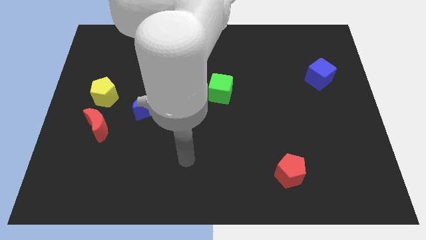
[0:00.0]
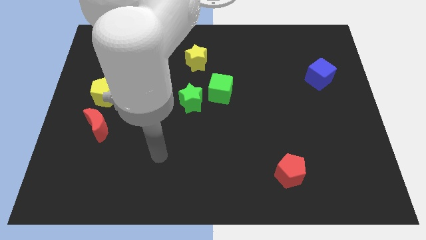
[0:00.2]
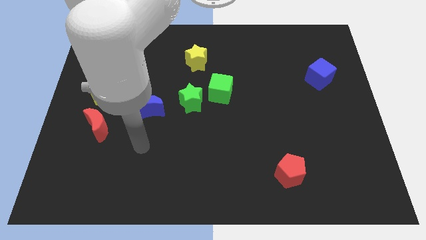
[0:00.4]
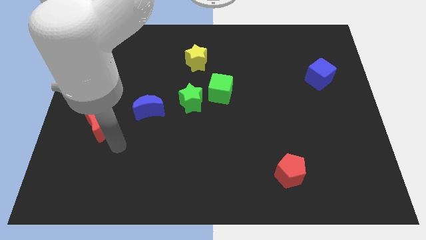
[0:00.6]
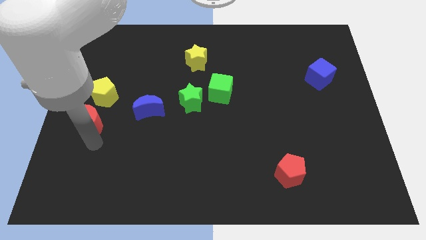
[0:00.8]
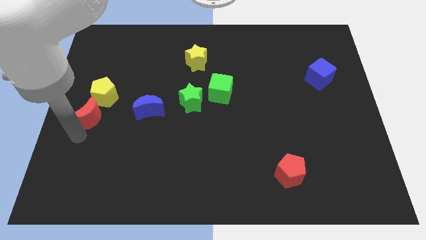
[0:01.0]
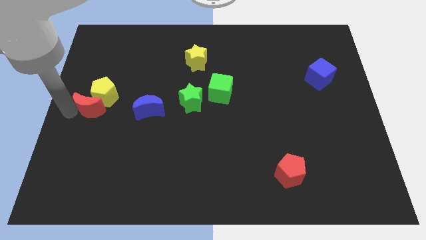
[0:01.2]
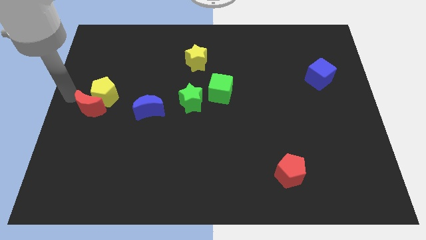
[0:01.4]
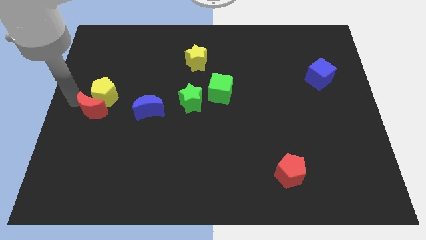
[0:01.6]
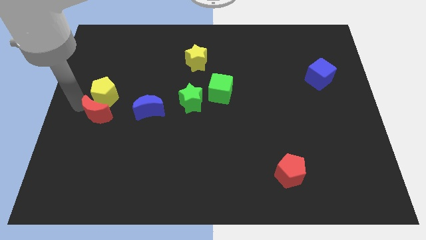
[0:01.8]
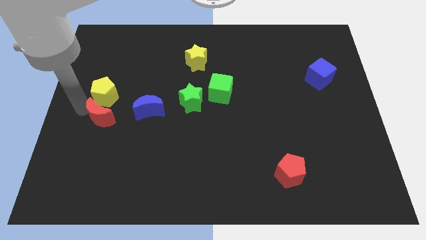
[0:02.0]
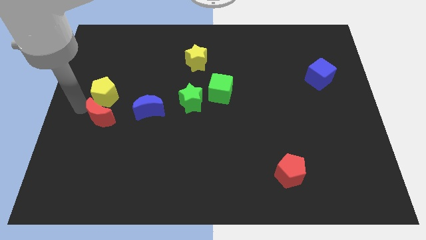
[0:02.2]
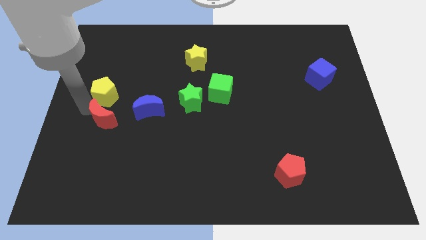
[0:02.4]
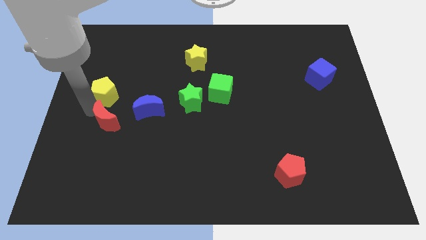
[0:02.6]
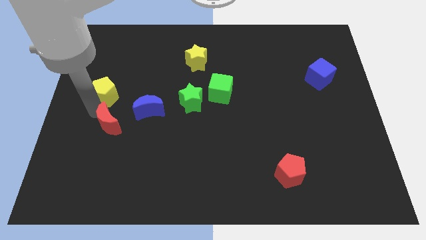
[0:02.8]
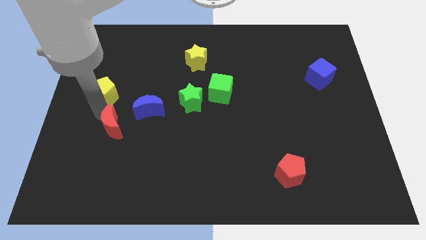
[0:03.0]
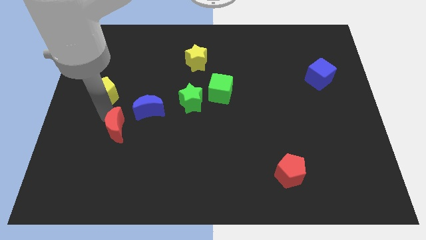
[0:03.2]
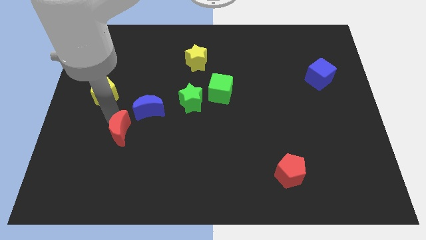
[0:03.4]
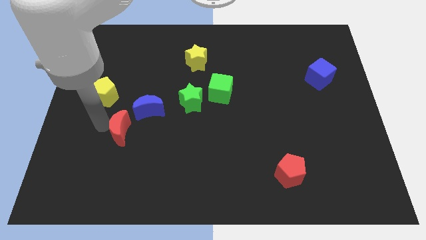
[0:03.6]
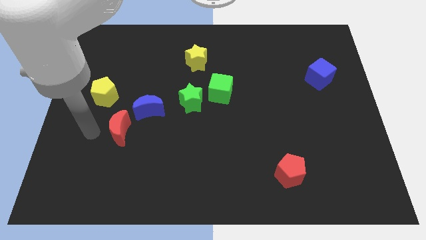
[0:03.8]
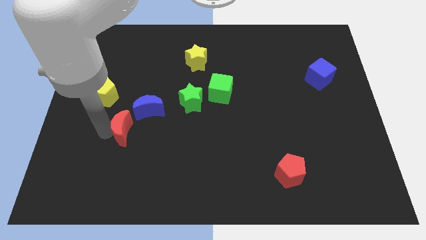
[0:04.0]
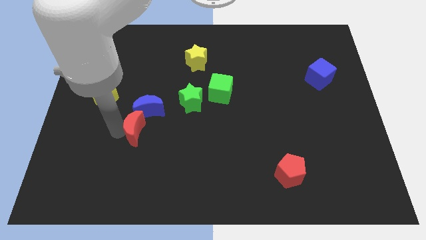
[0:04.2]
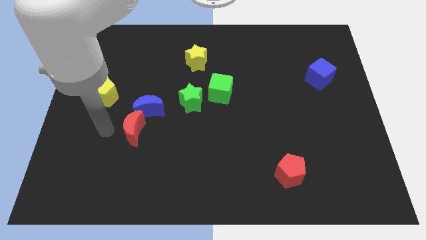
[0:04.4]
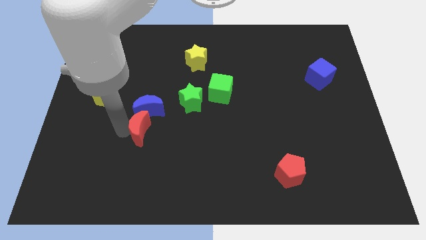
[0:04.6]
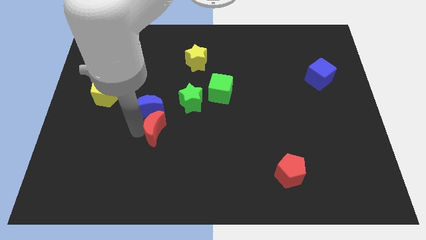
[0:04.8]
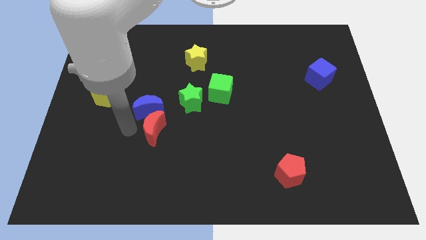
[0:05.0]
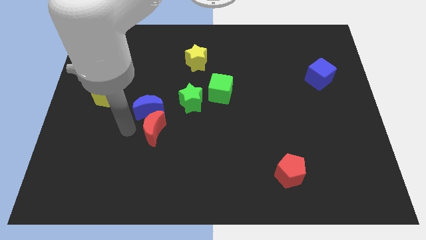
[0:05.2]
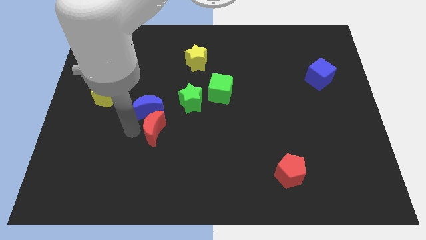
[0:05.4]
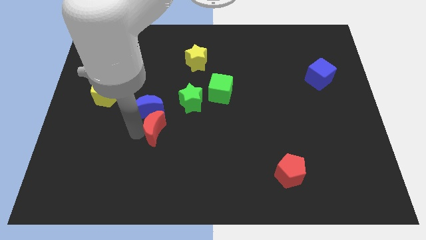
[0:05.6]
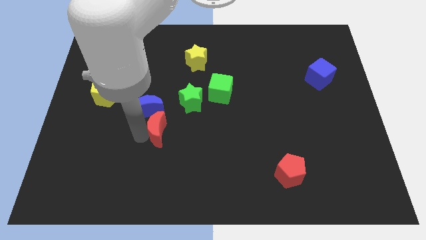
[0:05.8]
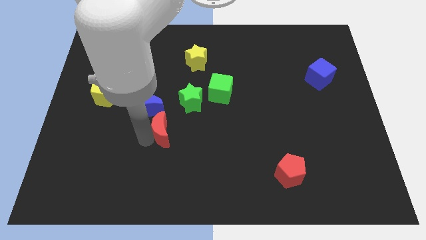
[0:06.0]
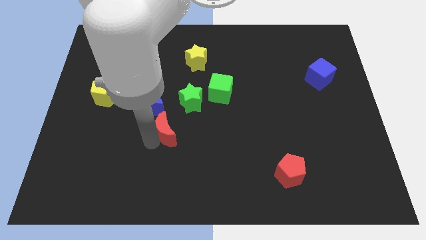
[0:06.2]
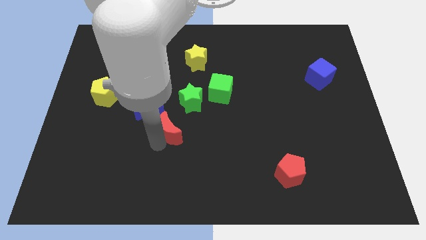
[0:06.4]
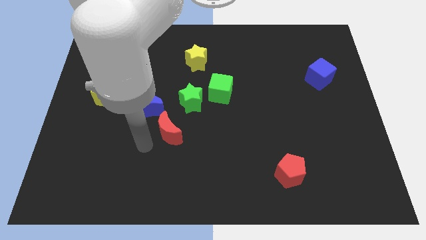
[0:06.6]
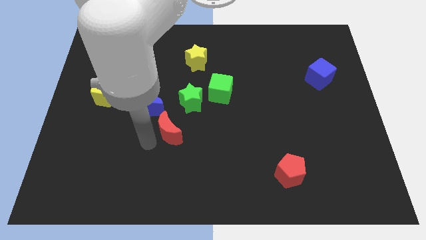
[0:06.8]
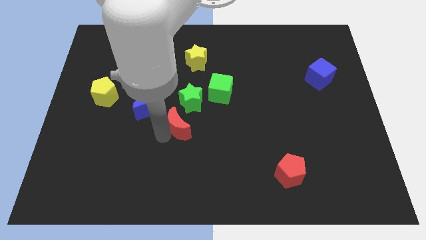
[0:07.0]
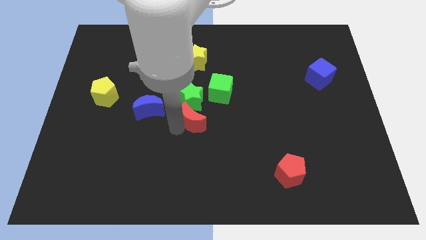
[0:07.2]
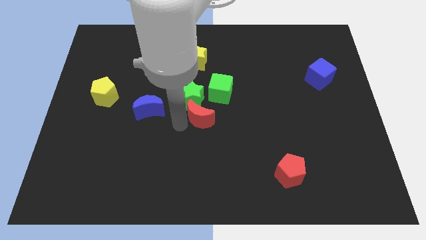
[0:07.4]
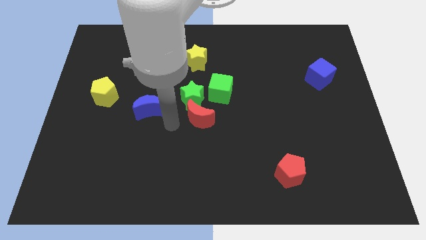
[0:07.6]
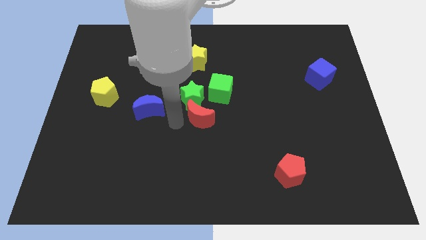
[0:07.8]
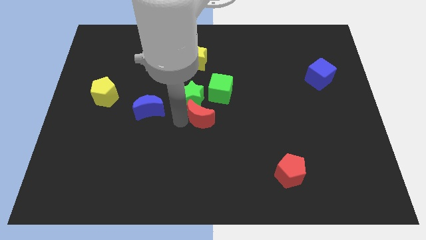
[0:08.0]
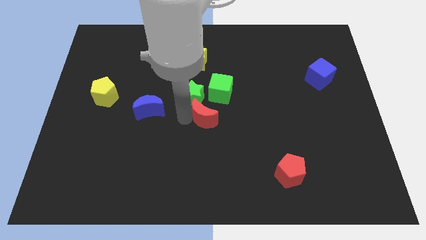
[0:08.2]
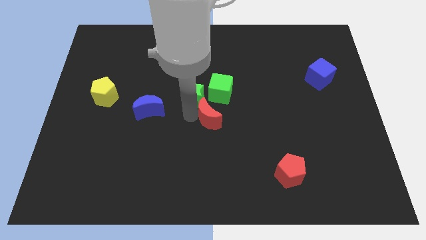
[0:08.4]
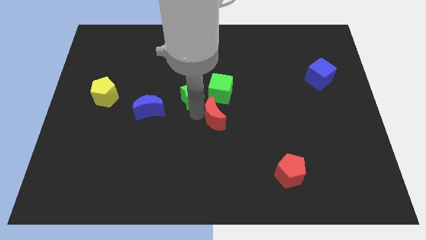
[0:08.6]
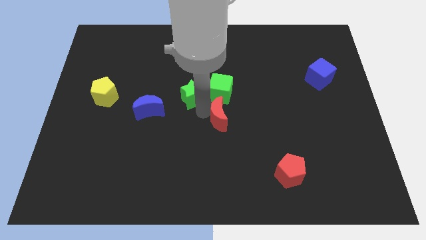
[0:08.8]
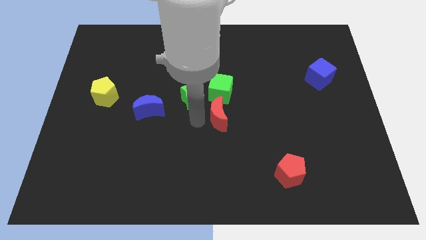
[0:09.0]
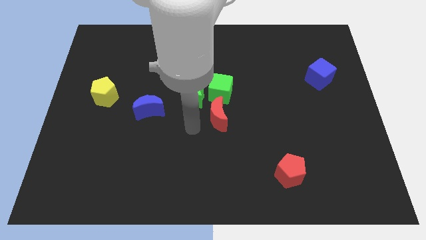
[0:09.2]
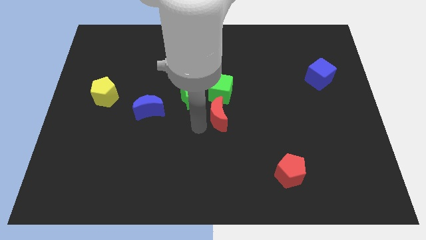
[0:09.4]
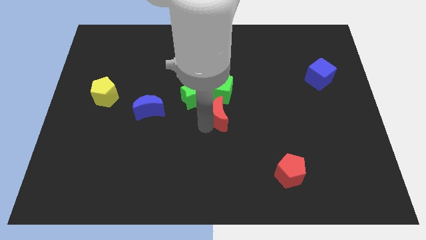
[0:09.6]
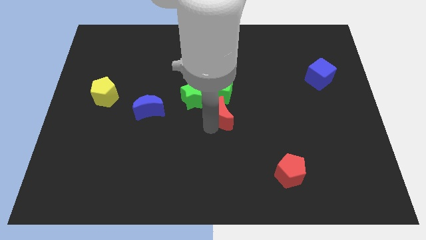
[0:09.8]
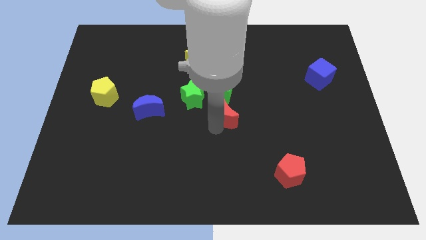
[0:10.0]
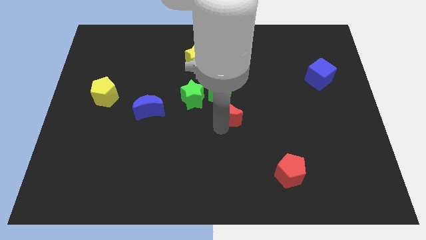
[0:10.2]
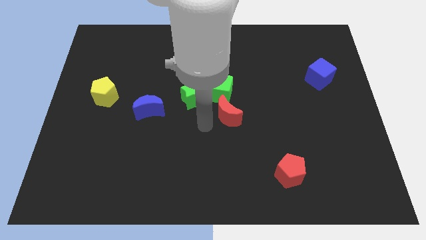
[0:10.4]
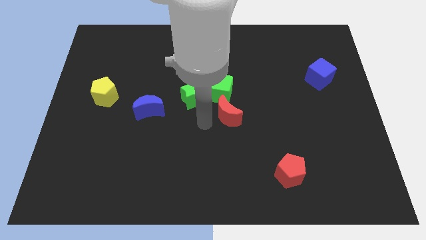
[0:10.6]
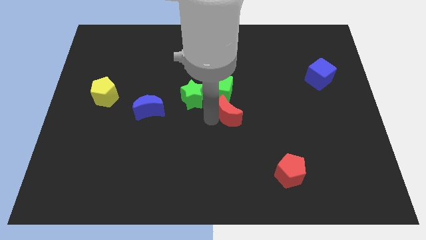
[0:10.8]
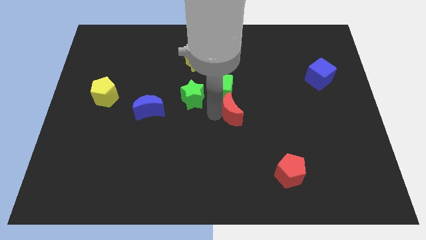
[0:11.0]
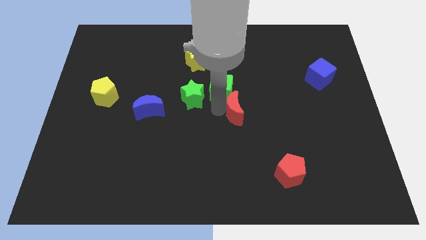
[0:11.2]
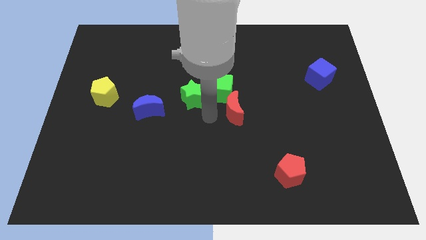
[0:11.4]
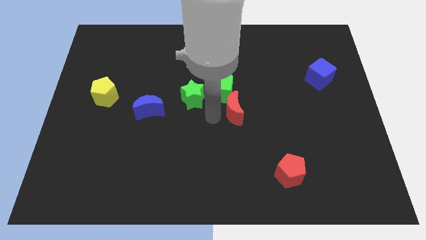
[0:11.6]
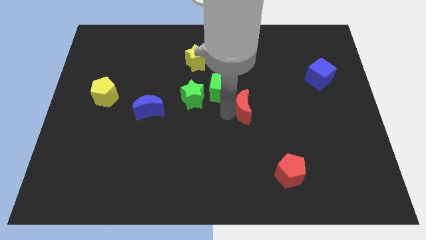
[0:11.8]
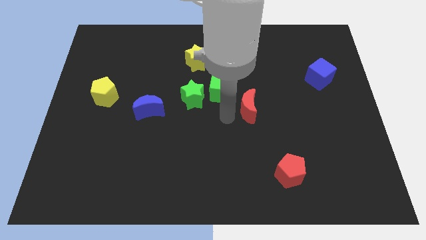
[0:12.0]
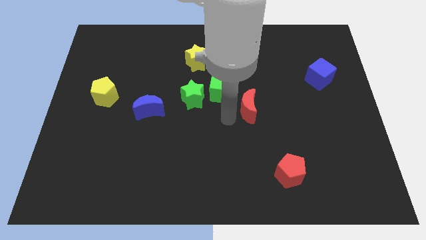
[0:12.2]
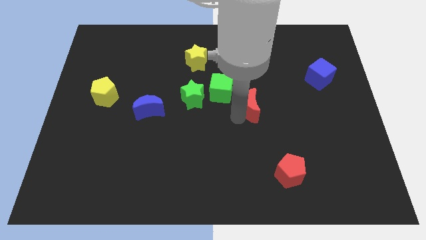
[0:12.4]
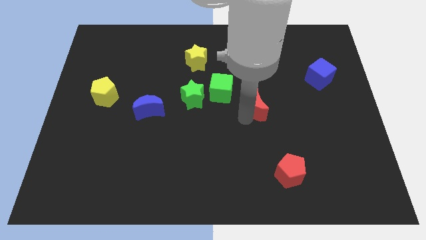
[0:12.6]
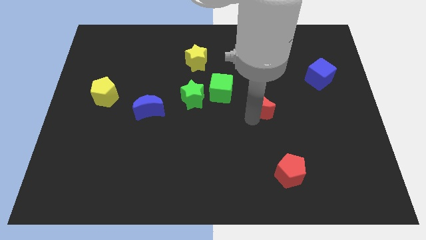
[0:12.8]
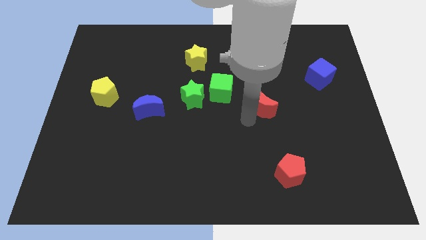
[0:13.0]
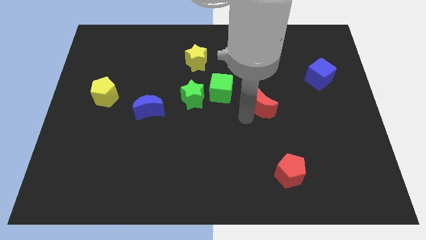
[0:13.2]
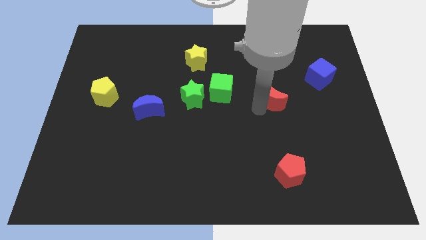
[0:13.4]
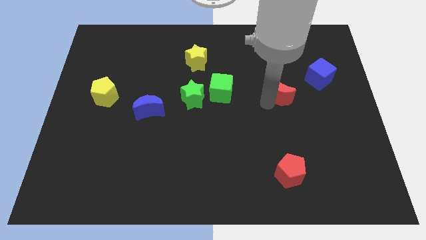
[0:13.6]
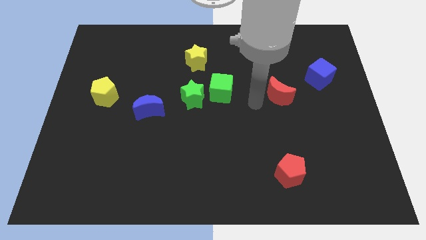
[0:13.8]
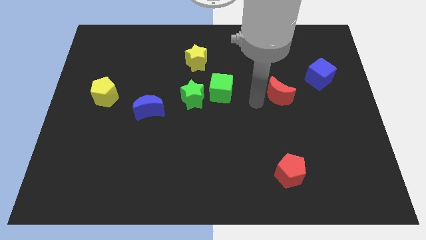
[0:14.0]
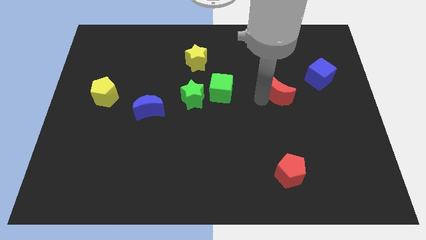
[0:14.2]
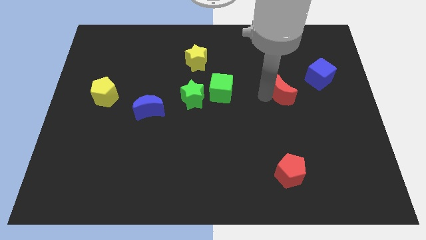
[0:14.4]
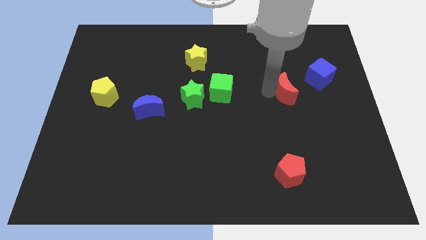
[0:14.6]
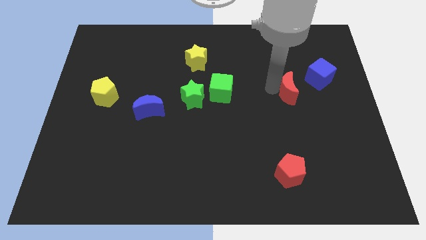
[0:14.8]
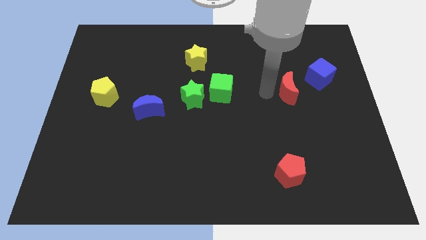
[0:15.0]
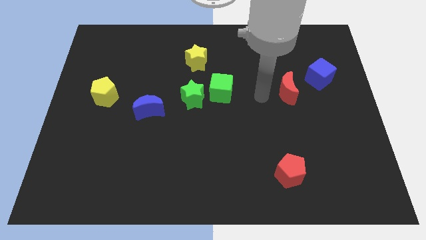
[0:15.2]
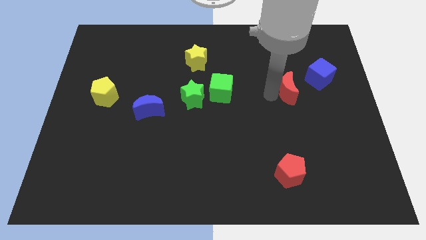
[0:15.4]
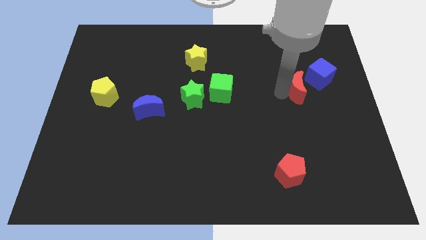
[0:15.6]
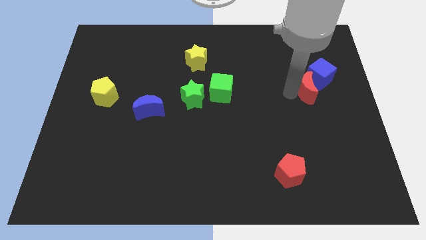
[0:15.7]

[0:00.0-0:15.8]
slide the red moon close to the blue cube
